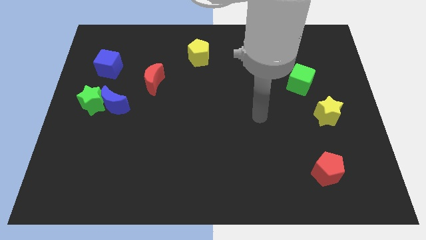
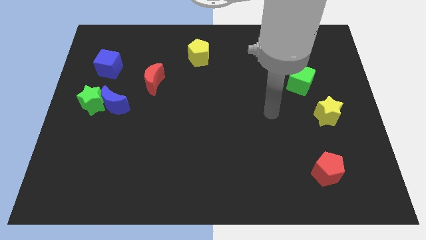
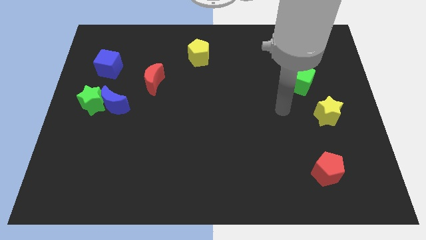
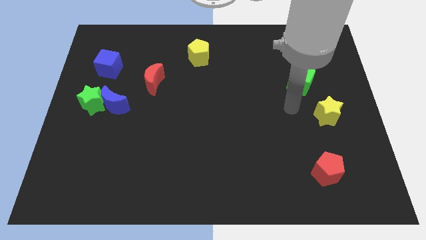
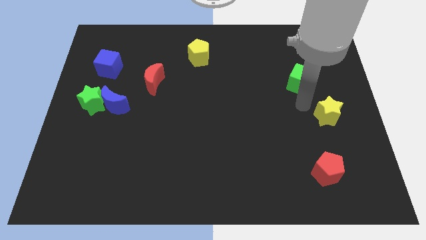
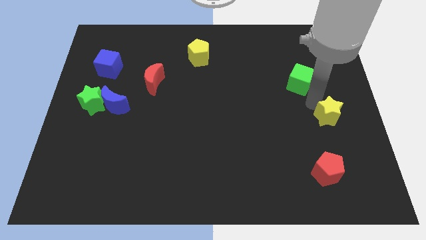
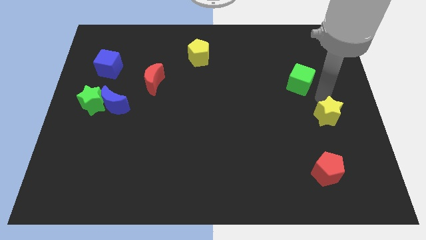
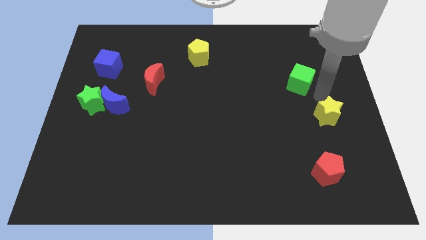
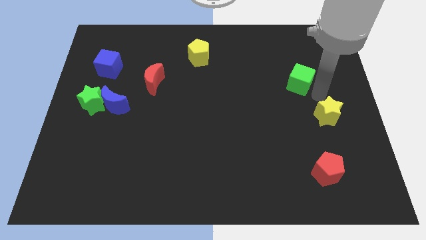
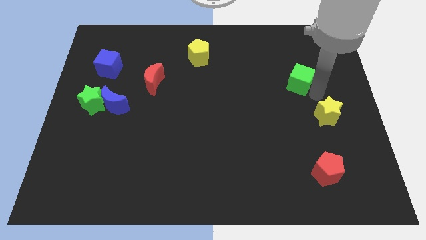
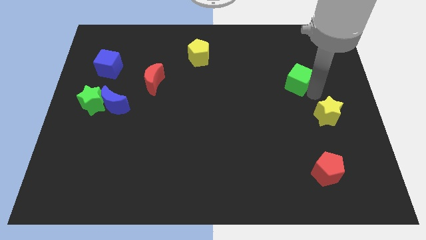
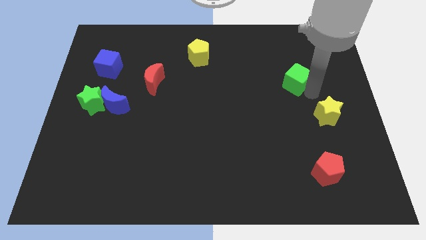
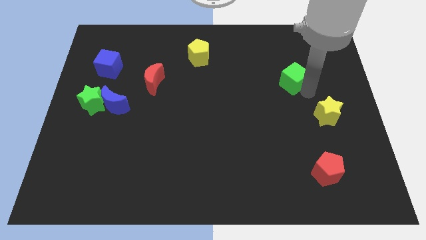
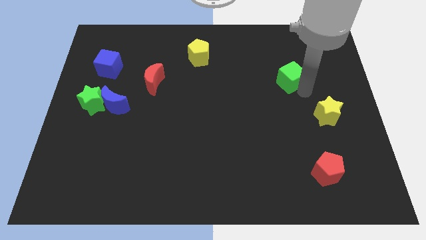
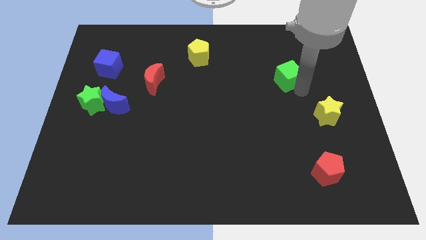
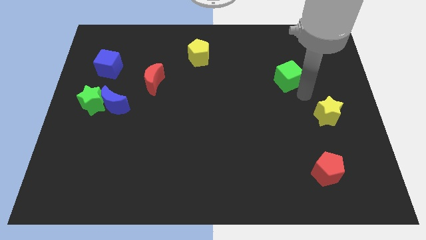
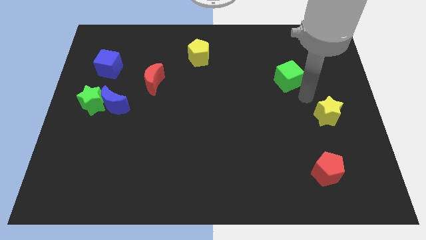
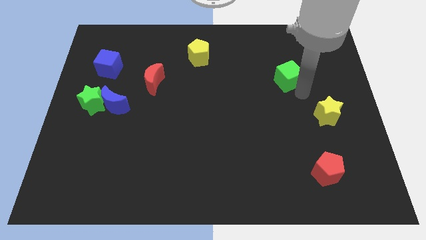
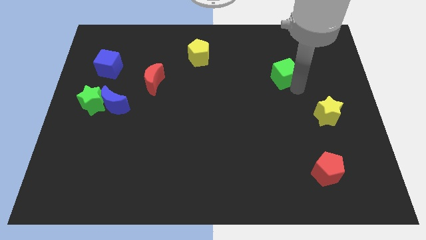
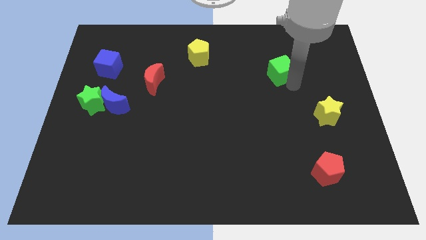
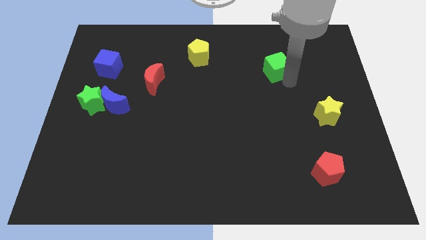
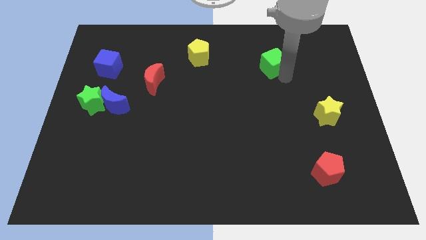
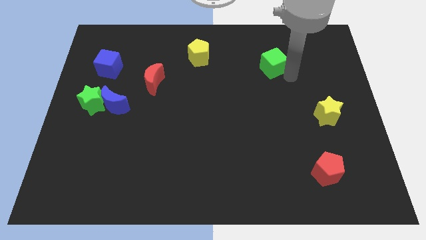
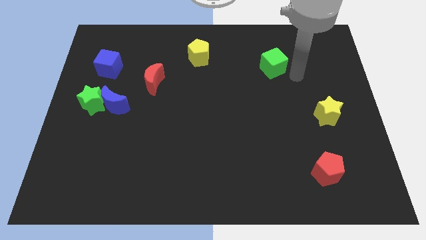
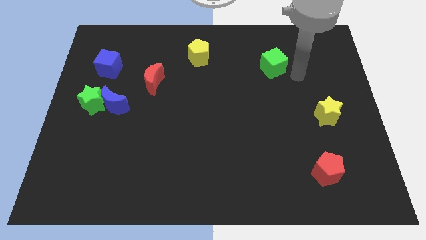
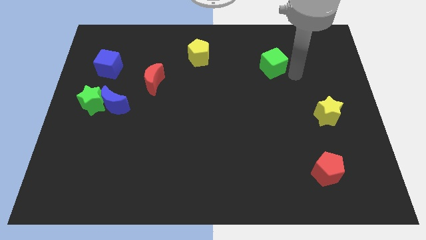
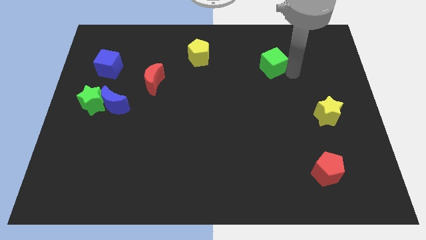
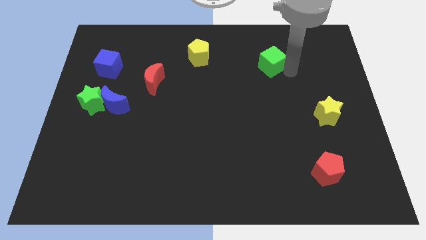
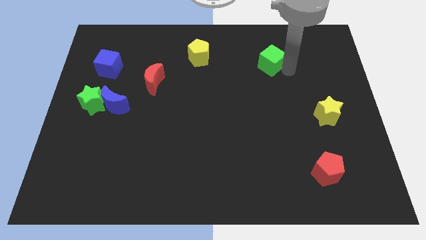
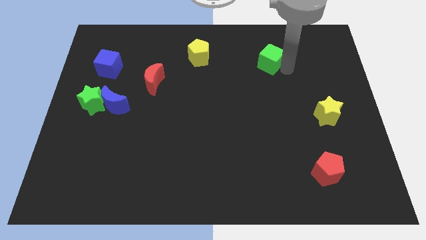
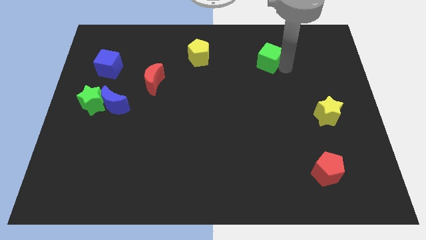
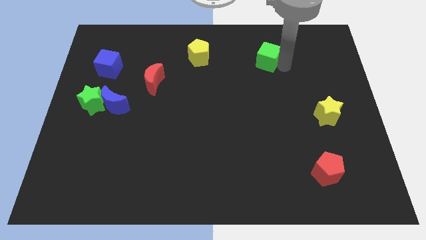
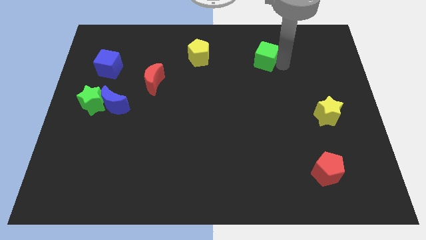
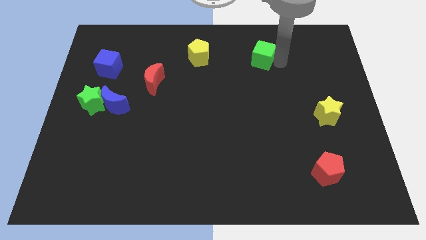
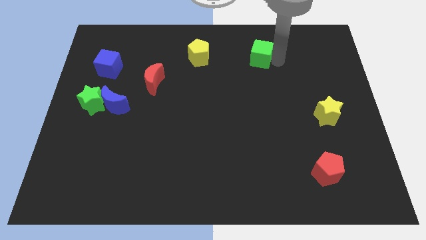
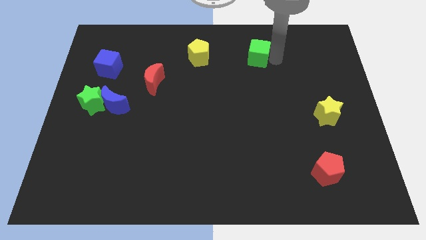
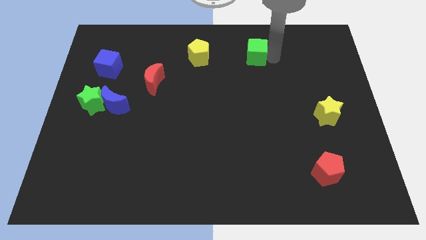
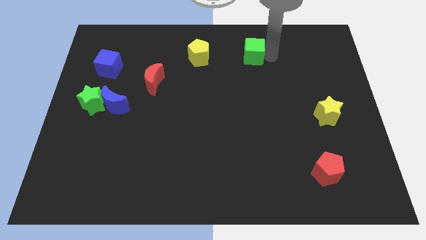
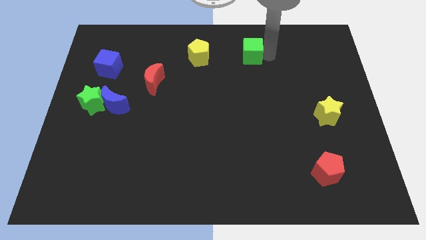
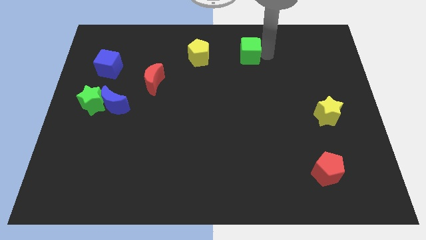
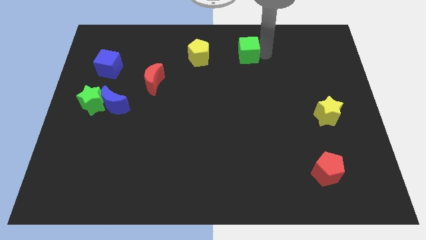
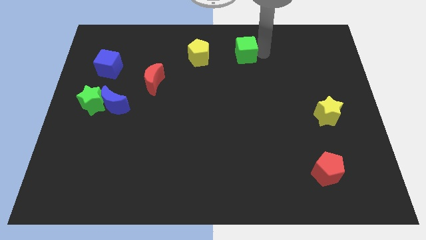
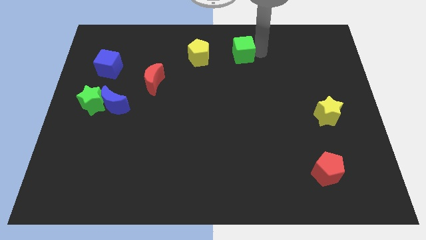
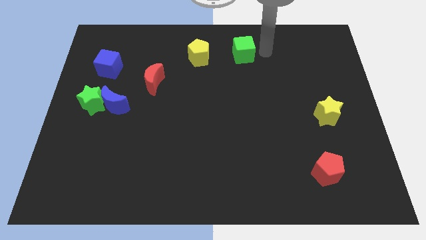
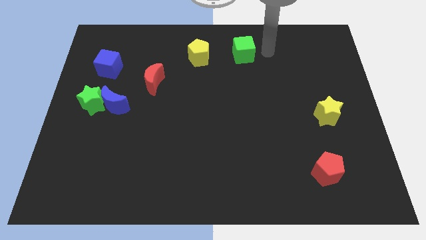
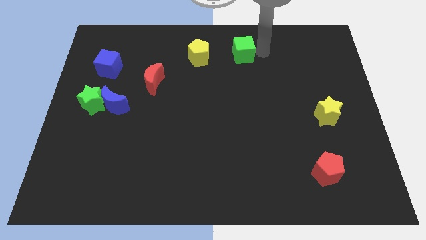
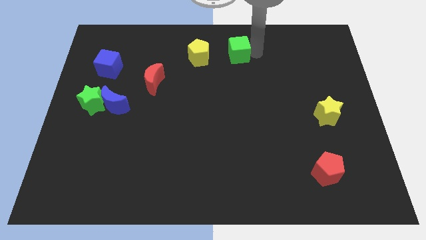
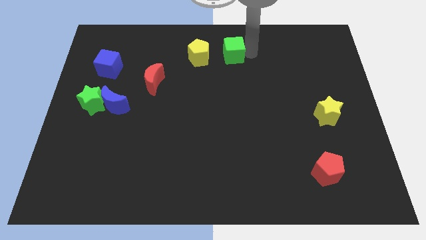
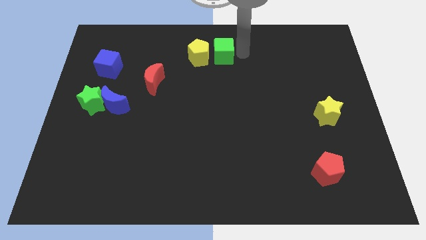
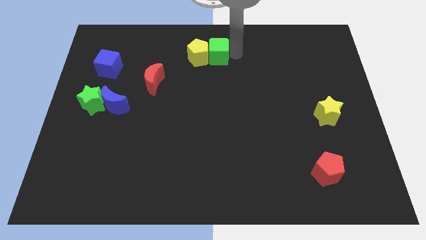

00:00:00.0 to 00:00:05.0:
push the green cube to the yellow pentagon

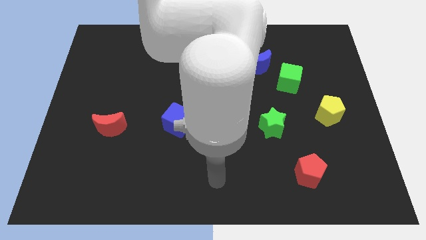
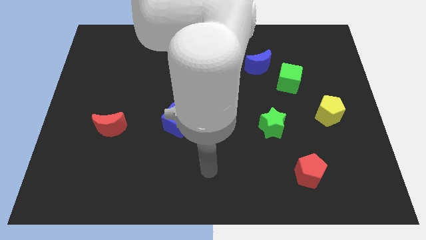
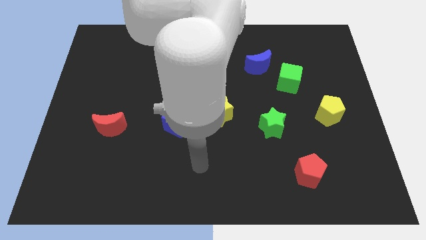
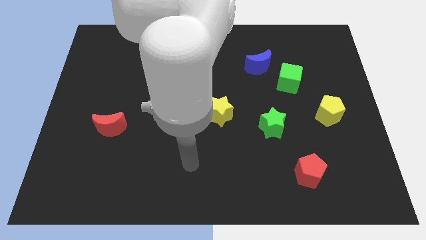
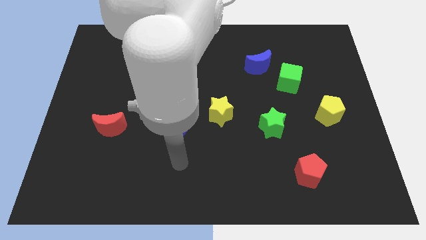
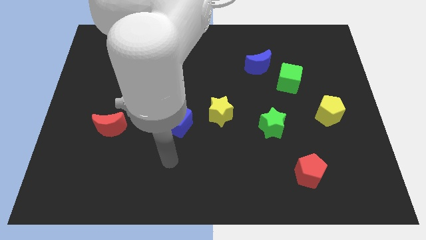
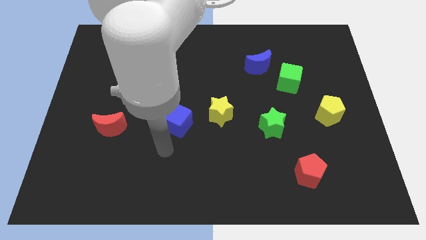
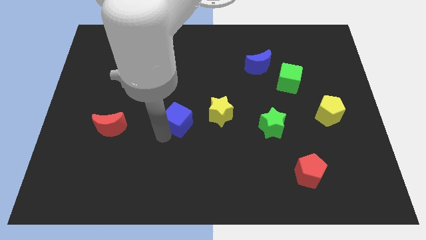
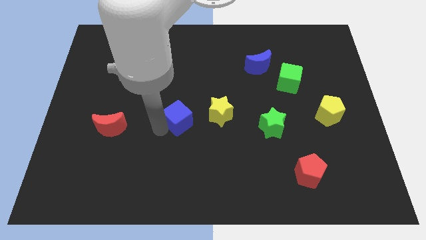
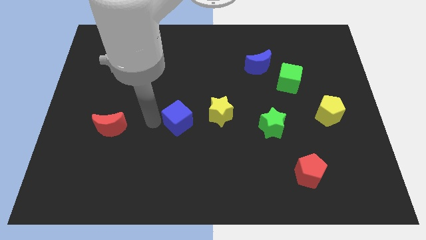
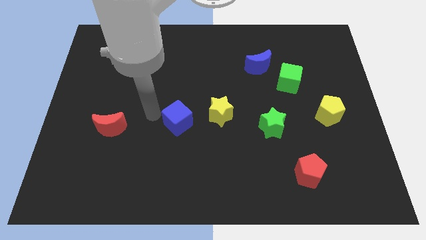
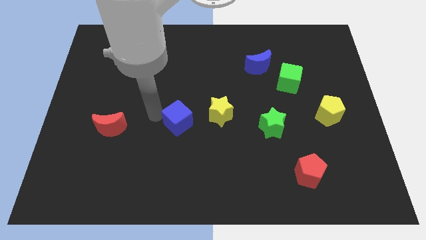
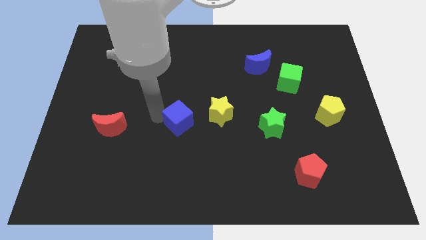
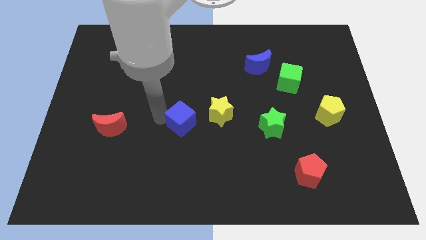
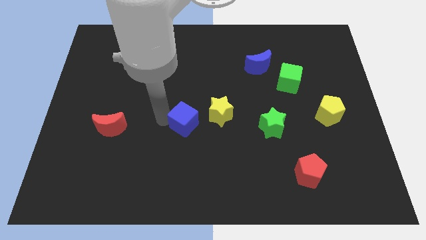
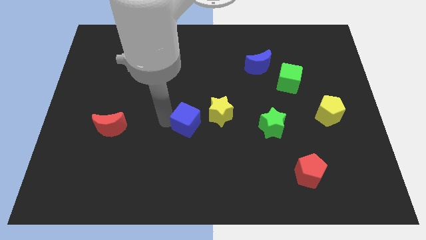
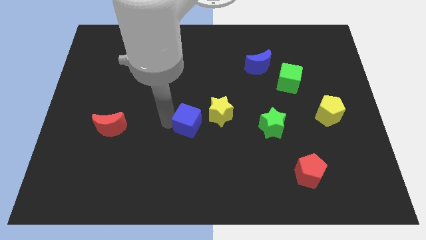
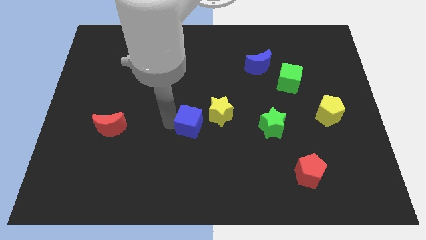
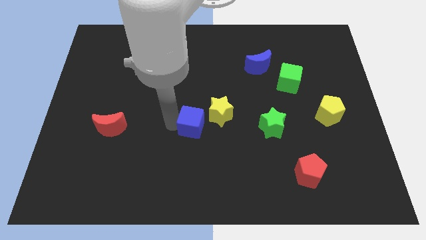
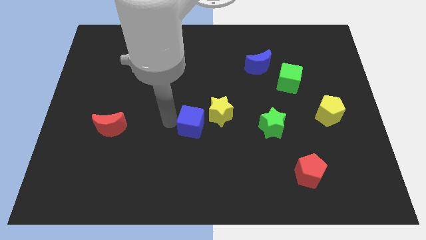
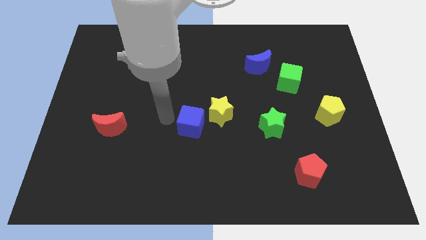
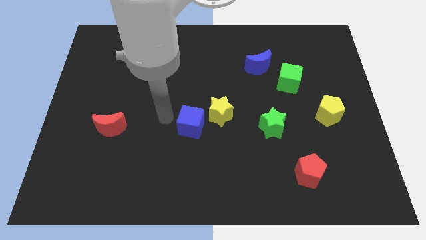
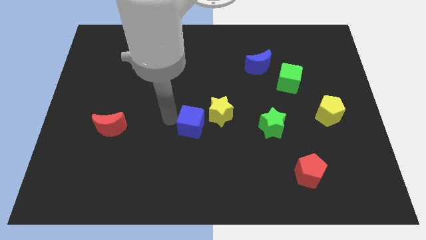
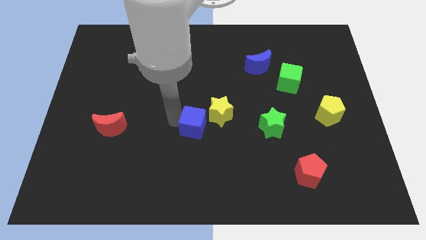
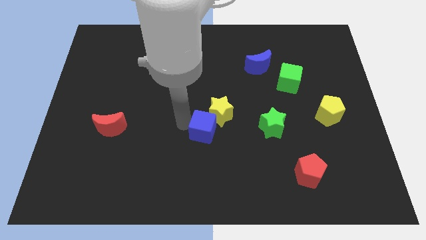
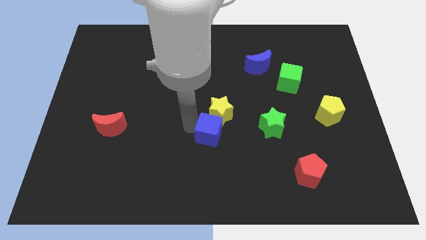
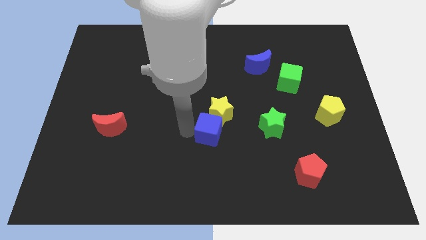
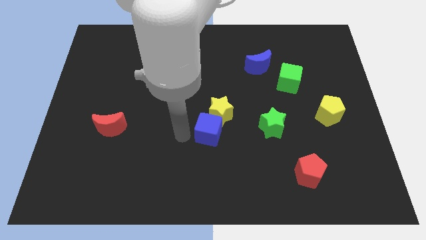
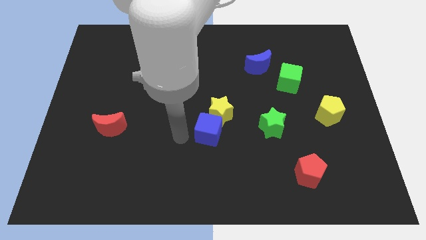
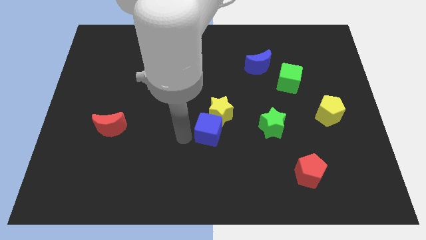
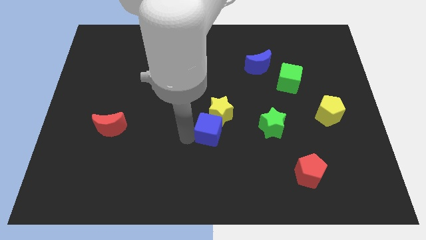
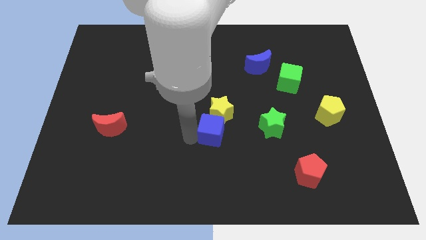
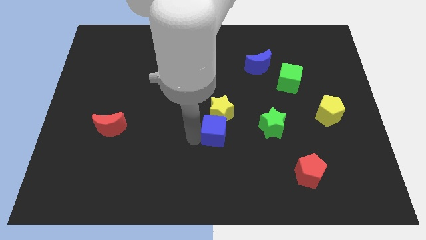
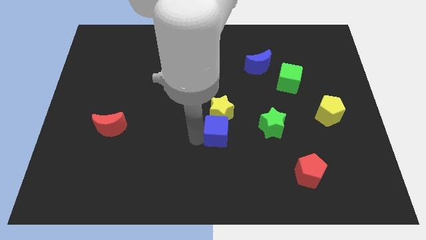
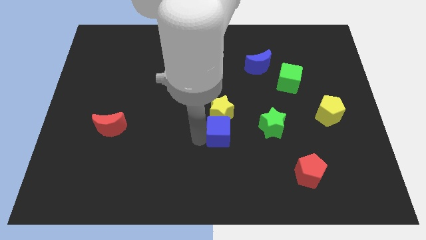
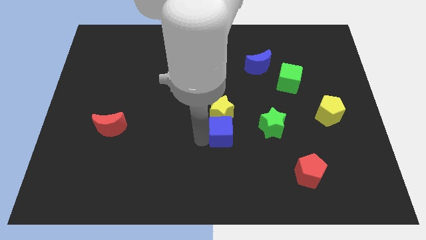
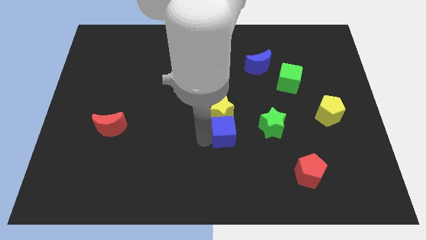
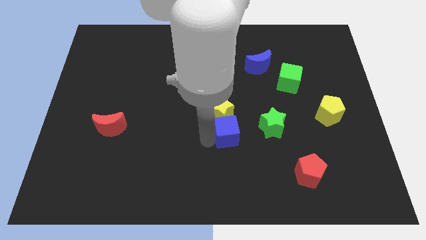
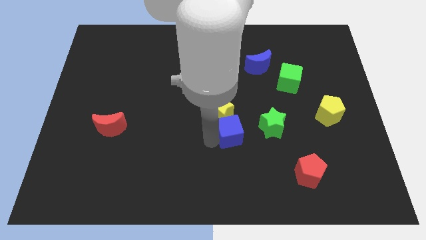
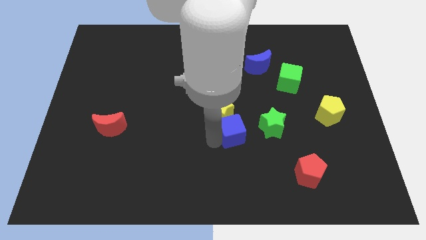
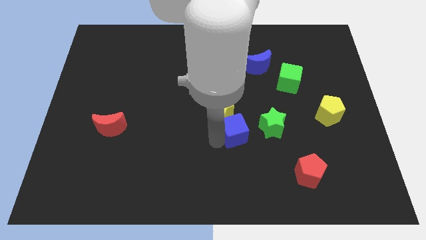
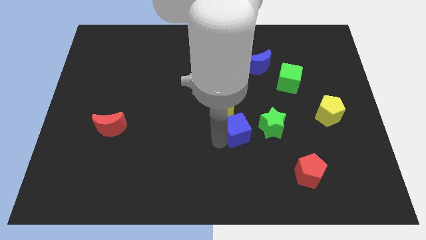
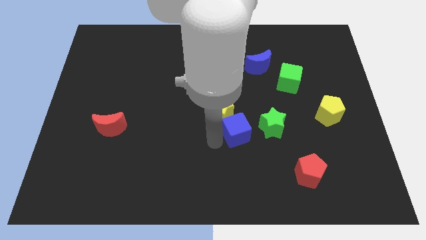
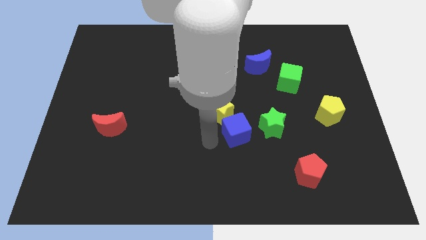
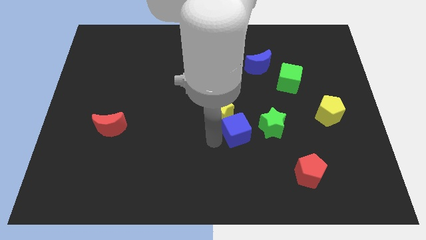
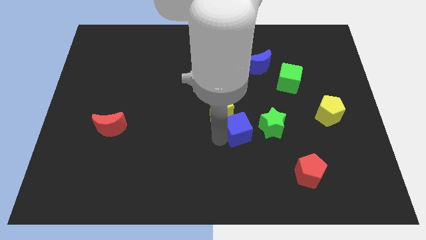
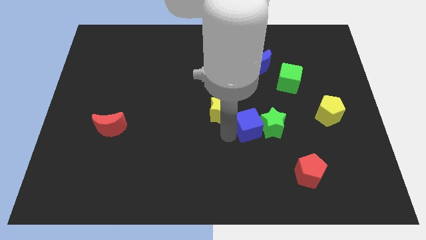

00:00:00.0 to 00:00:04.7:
move the blue cube towards the green star
